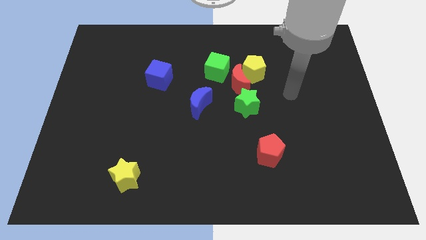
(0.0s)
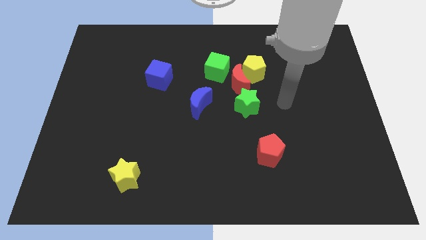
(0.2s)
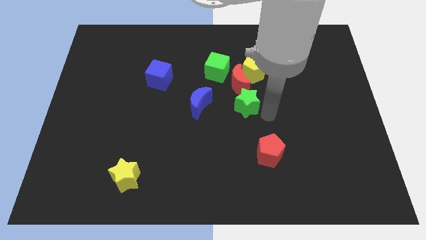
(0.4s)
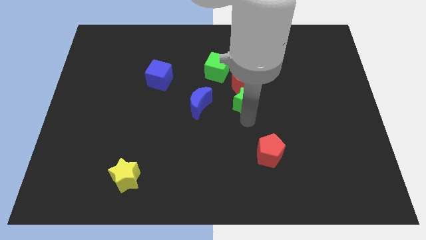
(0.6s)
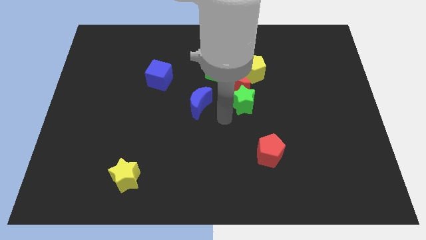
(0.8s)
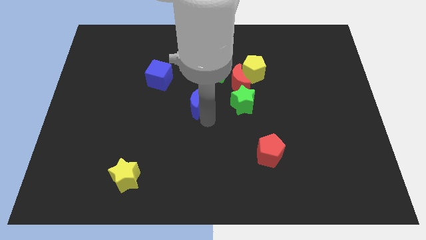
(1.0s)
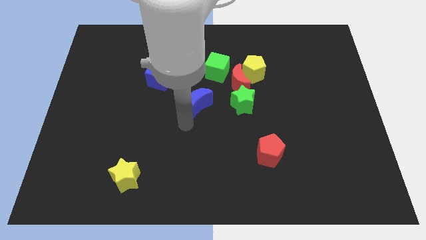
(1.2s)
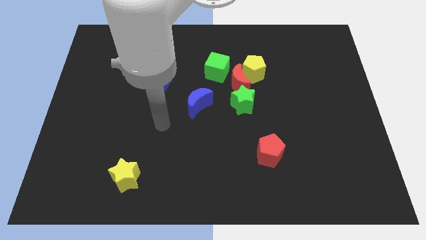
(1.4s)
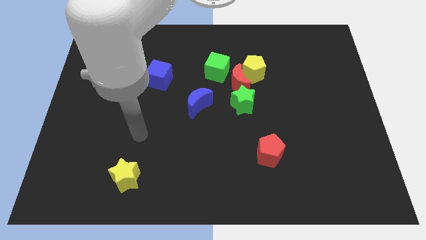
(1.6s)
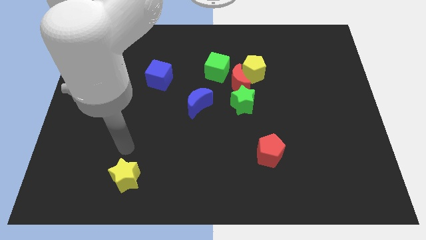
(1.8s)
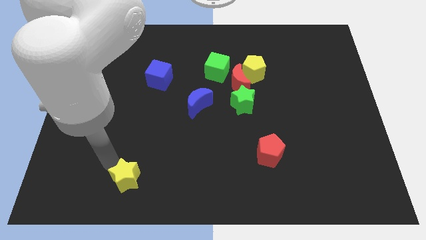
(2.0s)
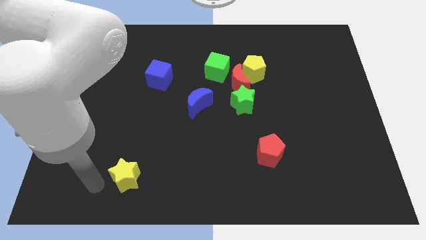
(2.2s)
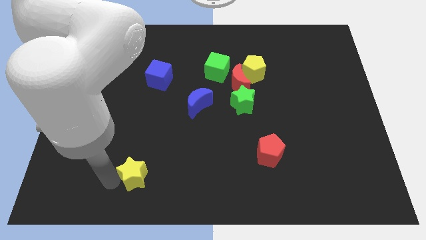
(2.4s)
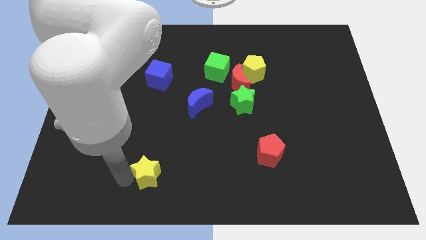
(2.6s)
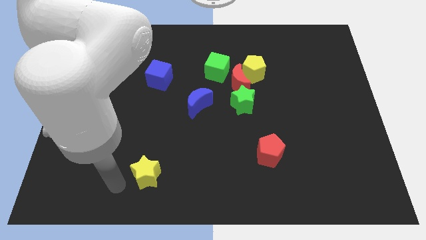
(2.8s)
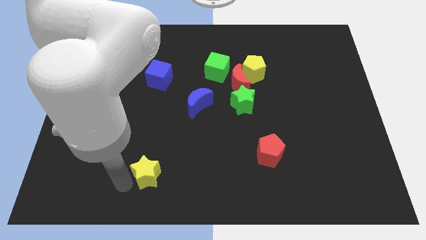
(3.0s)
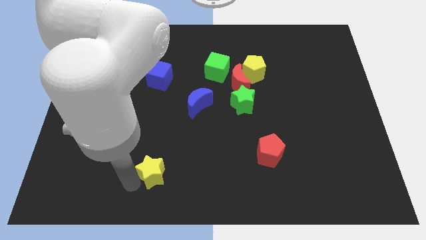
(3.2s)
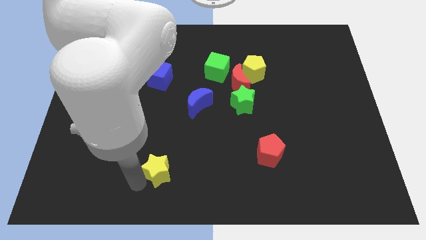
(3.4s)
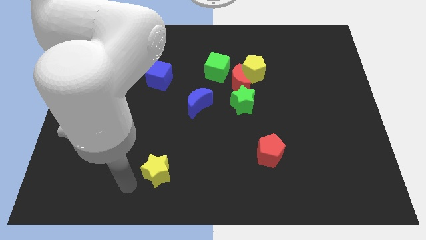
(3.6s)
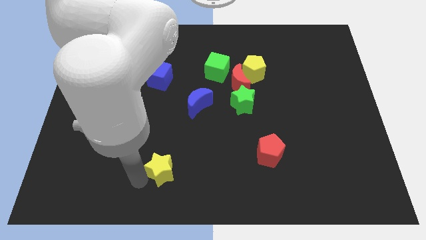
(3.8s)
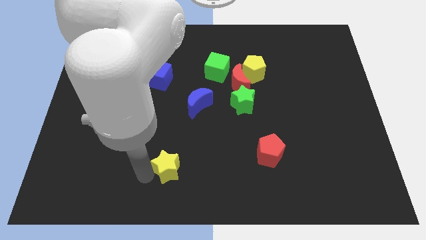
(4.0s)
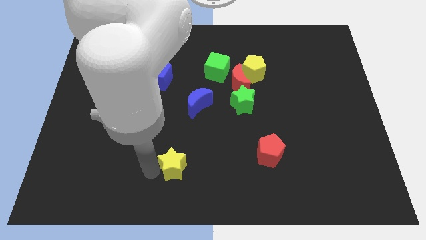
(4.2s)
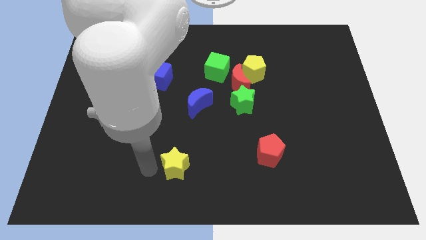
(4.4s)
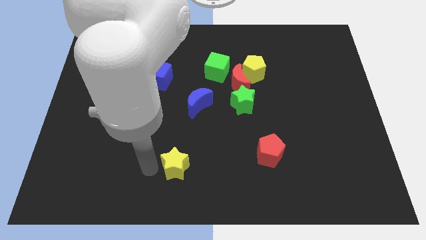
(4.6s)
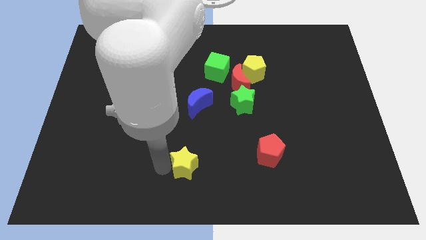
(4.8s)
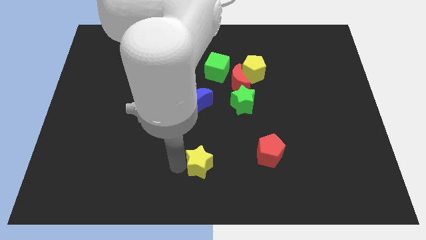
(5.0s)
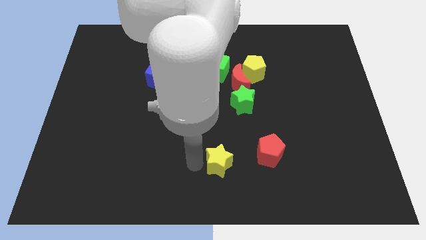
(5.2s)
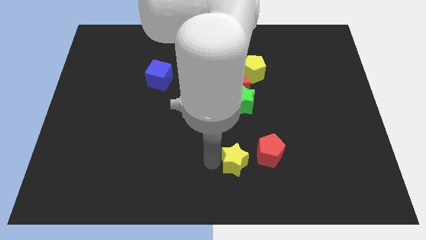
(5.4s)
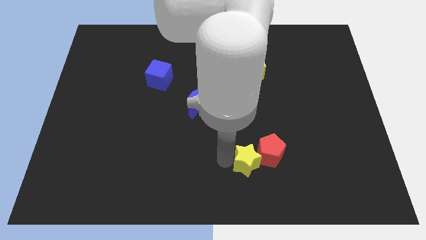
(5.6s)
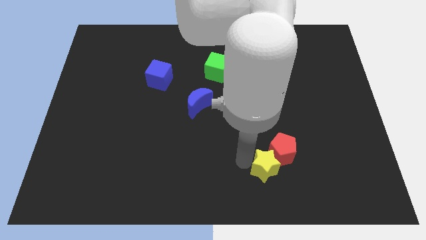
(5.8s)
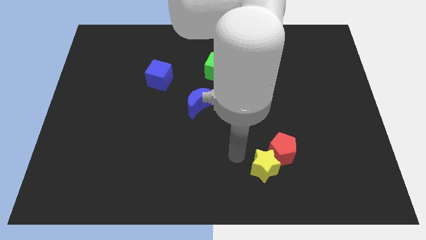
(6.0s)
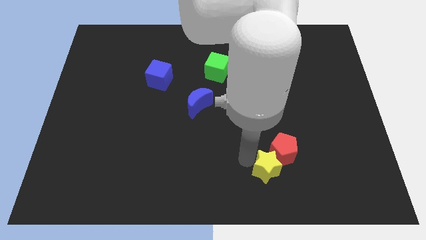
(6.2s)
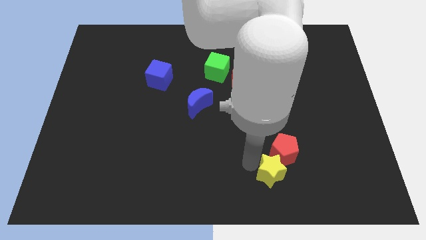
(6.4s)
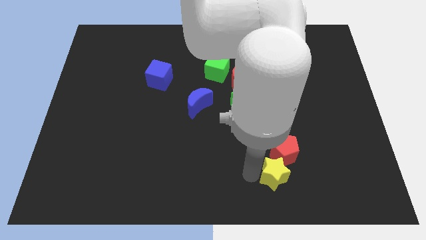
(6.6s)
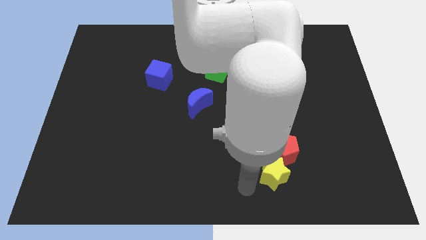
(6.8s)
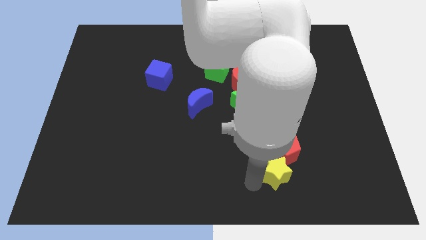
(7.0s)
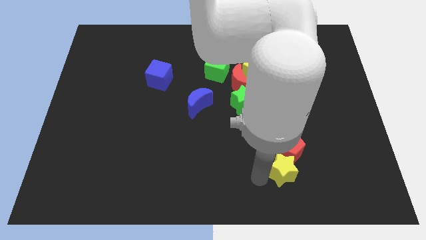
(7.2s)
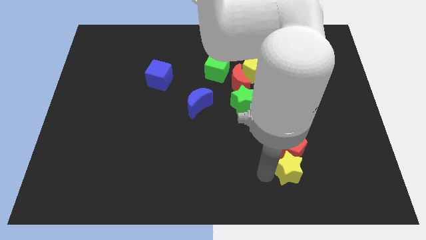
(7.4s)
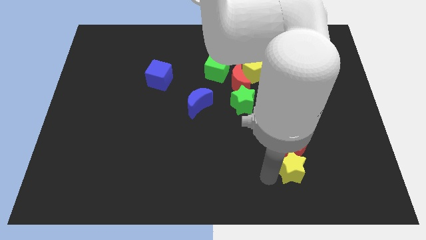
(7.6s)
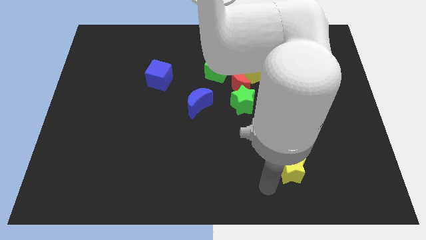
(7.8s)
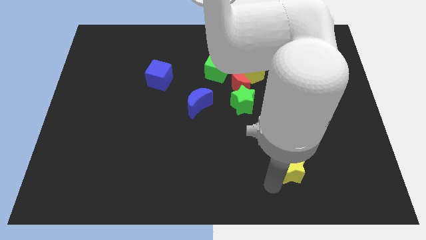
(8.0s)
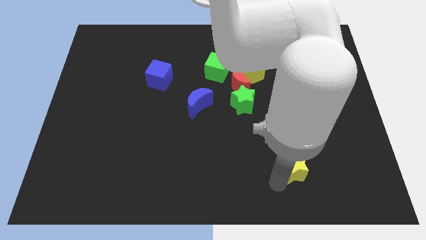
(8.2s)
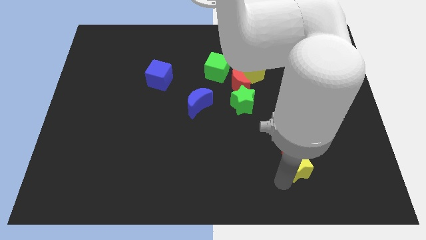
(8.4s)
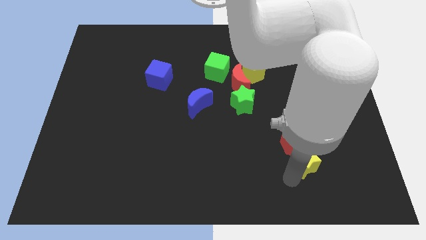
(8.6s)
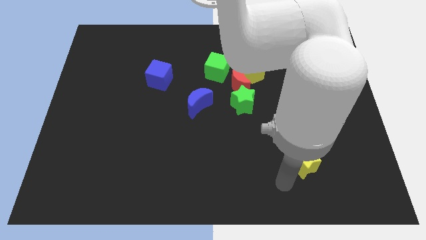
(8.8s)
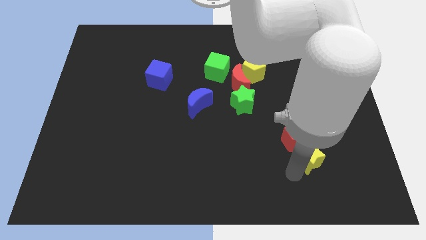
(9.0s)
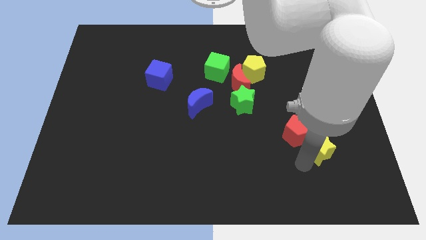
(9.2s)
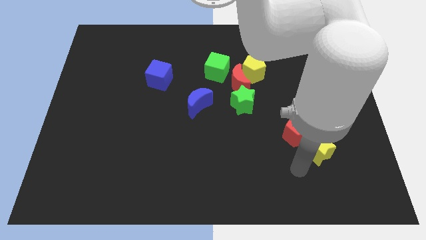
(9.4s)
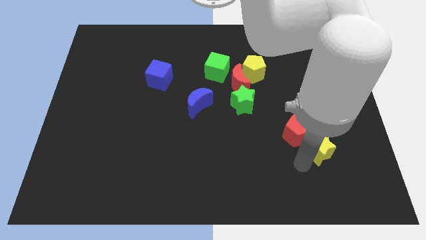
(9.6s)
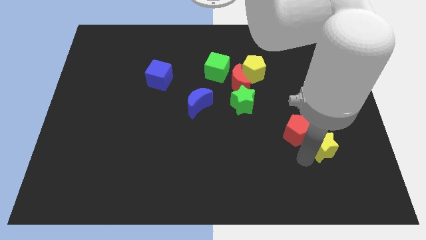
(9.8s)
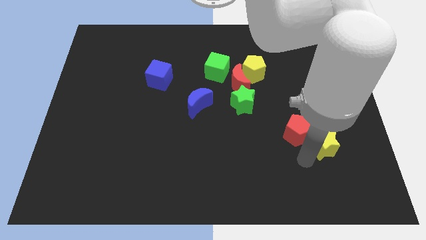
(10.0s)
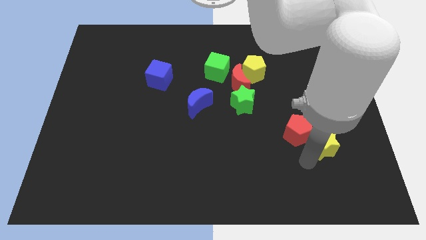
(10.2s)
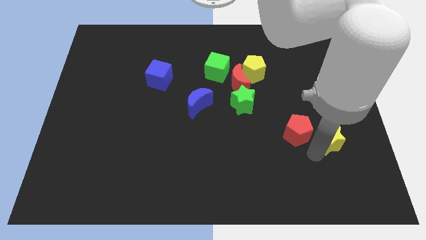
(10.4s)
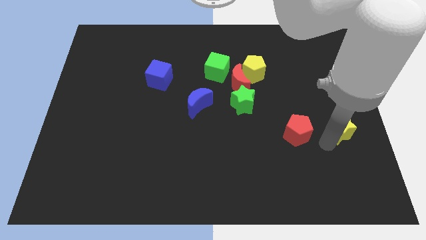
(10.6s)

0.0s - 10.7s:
slide the yellow star to the center right

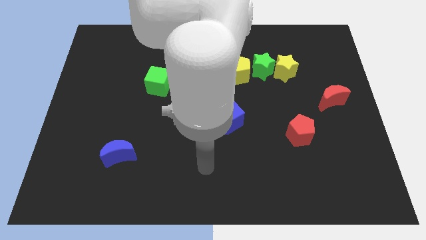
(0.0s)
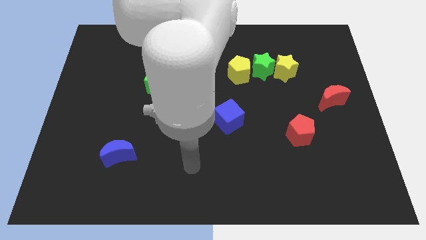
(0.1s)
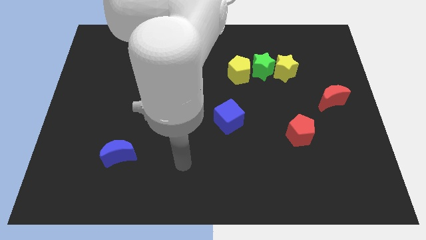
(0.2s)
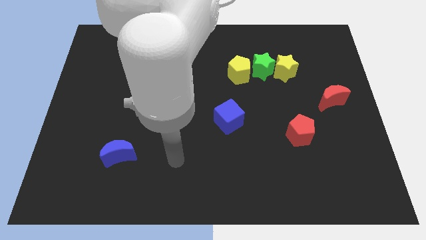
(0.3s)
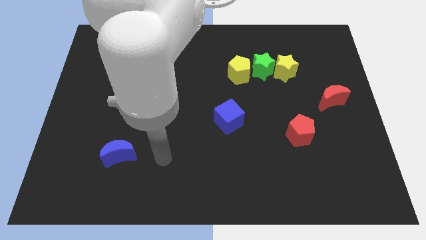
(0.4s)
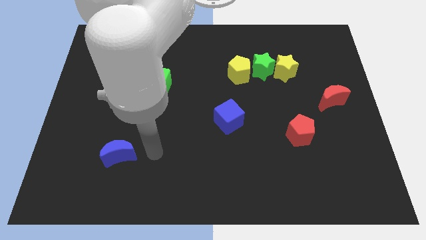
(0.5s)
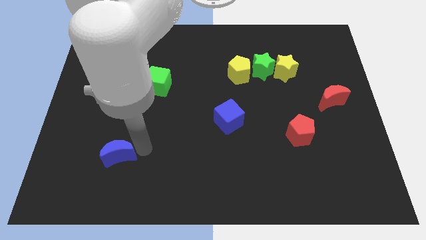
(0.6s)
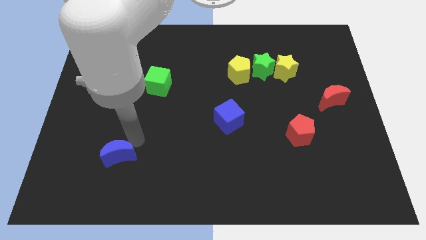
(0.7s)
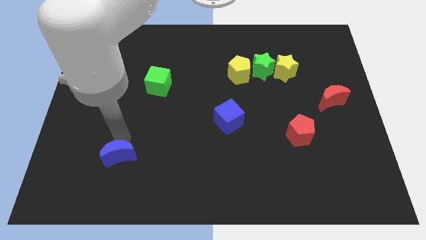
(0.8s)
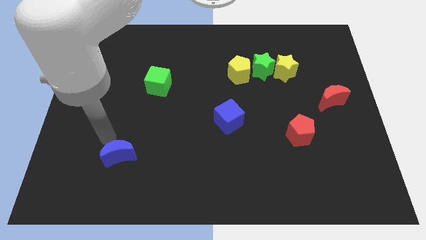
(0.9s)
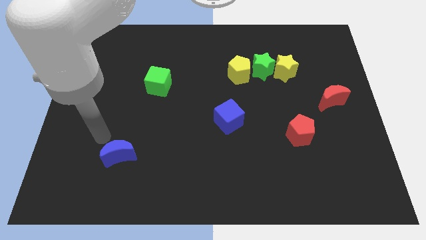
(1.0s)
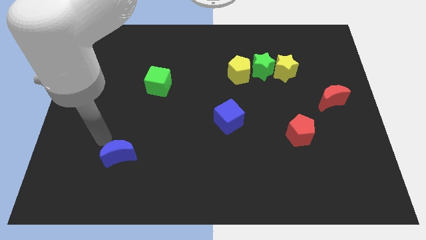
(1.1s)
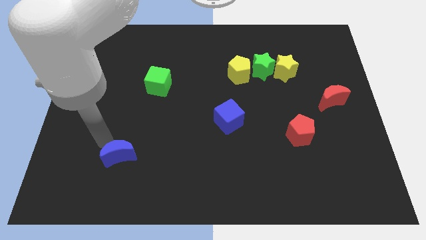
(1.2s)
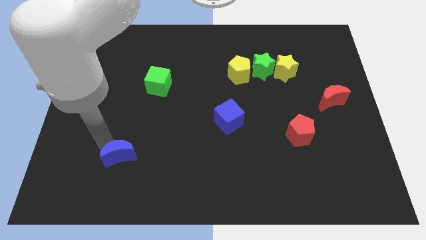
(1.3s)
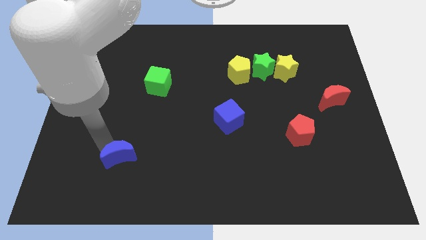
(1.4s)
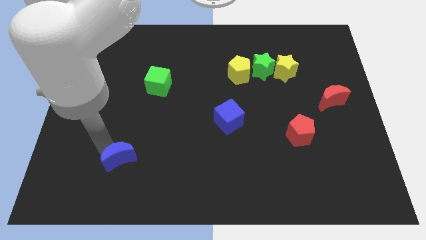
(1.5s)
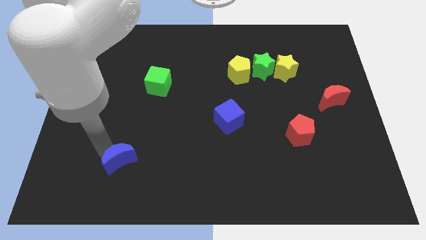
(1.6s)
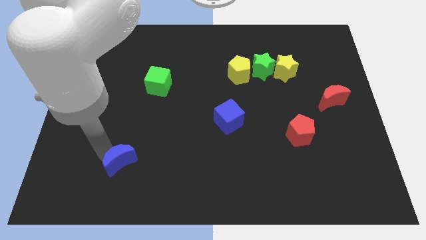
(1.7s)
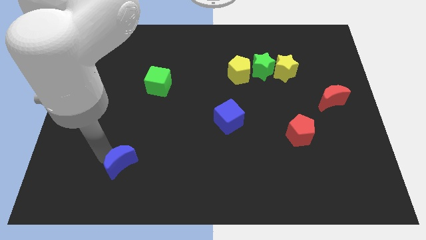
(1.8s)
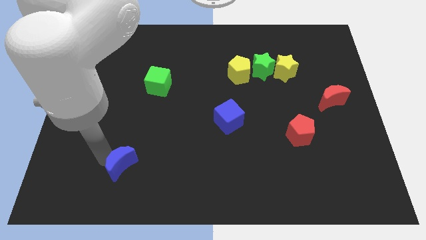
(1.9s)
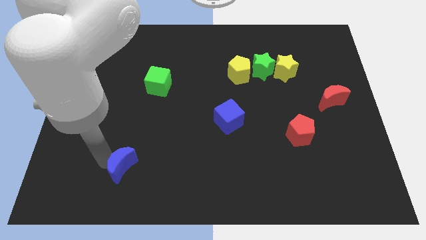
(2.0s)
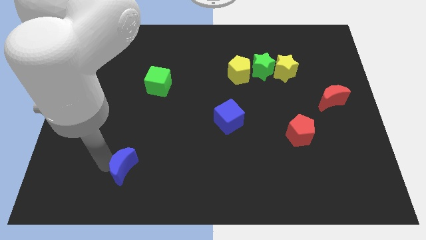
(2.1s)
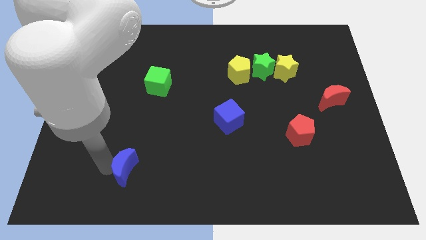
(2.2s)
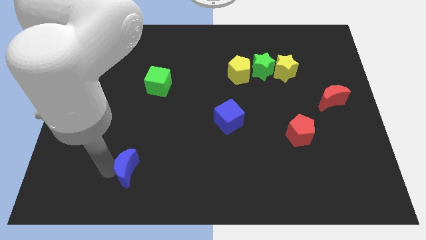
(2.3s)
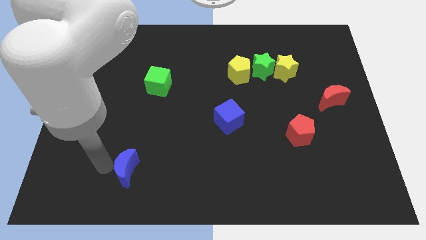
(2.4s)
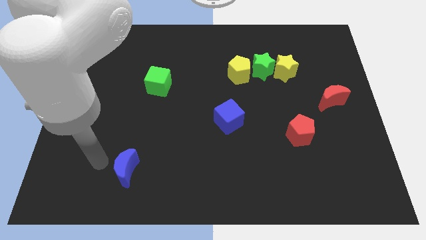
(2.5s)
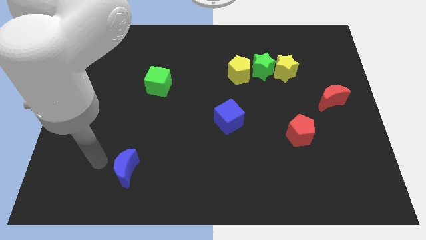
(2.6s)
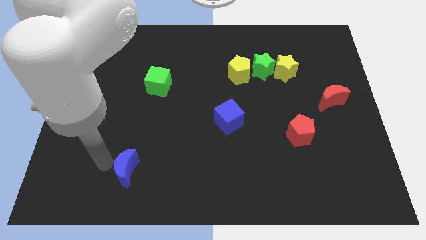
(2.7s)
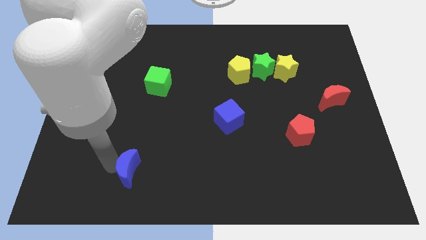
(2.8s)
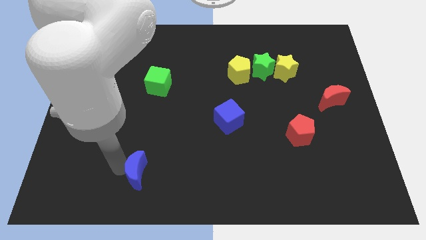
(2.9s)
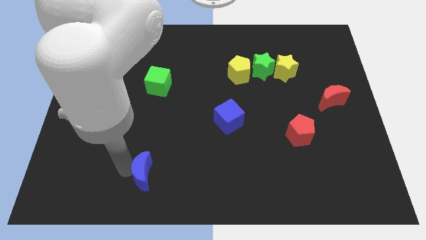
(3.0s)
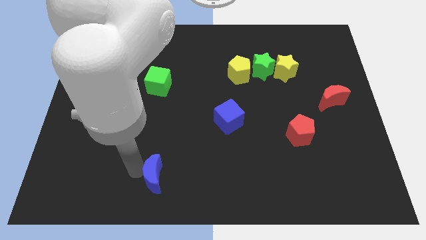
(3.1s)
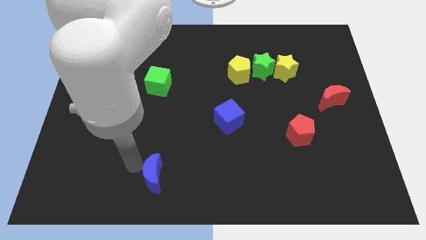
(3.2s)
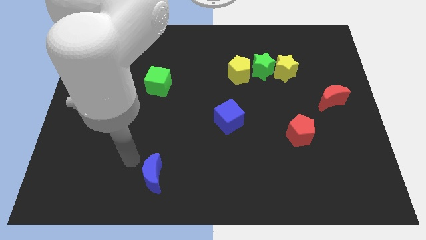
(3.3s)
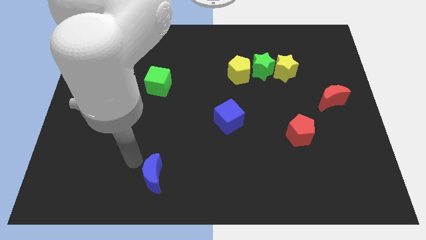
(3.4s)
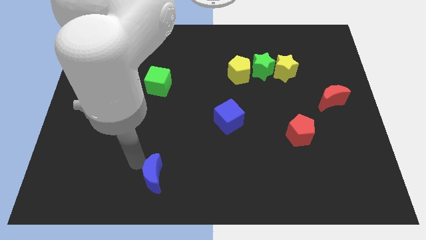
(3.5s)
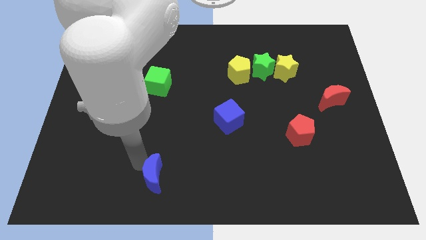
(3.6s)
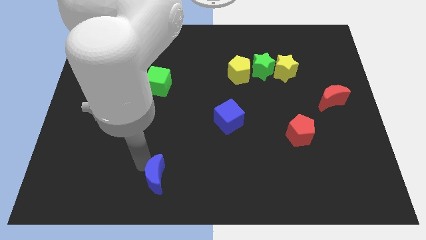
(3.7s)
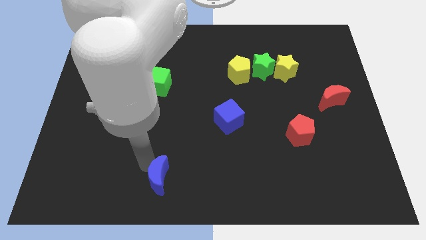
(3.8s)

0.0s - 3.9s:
slide the blue moon to the bottom
